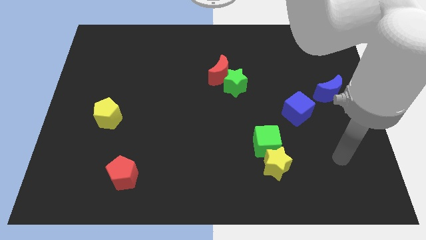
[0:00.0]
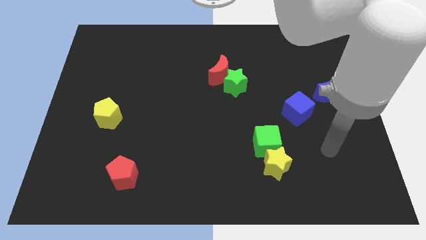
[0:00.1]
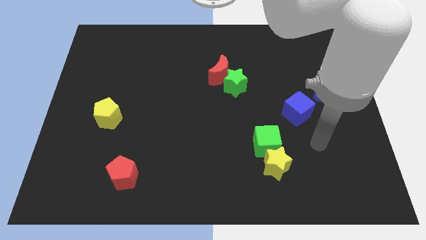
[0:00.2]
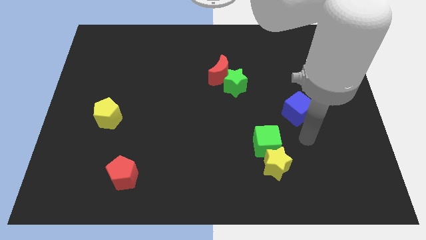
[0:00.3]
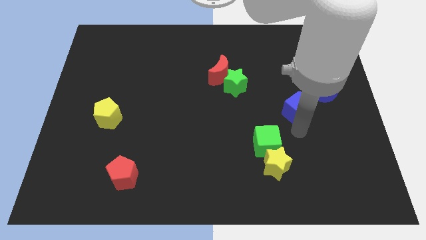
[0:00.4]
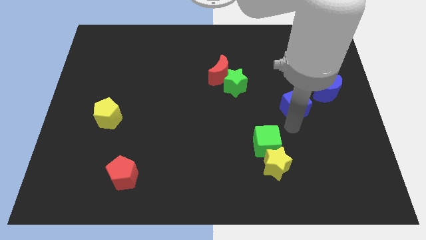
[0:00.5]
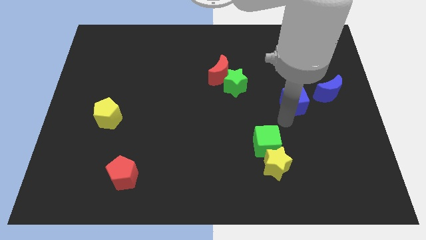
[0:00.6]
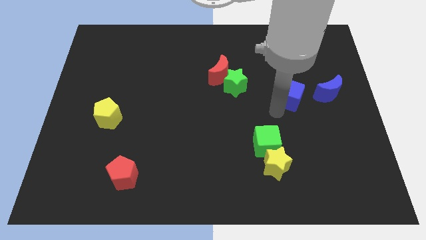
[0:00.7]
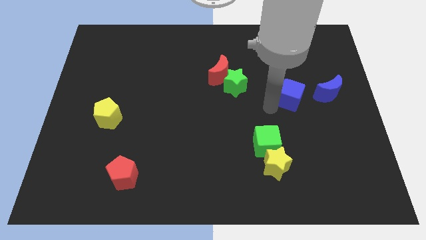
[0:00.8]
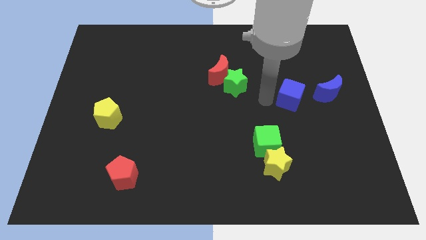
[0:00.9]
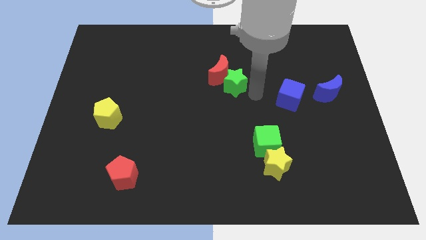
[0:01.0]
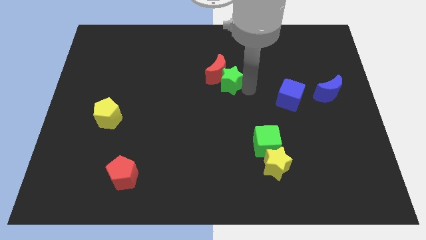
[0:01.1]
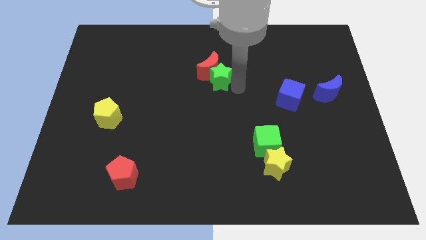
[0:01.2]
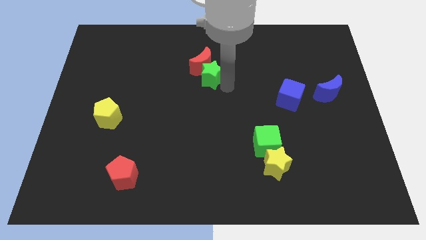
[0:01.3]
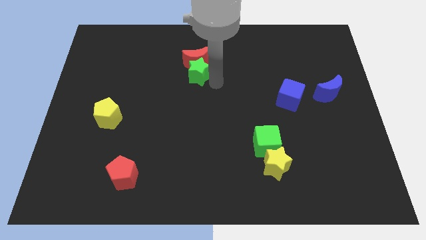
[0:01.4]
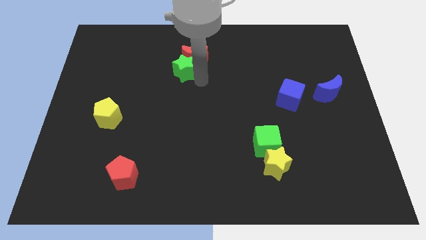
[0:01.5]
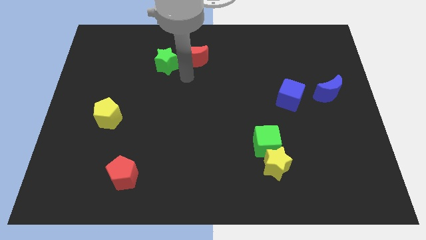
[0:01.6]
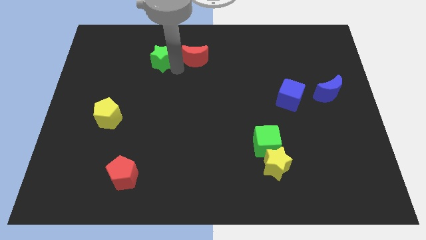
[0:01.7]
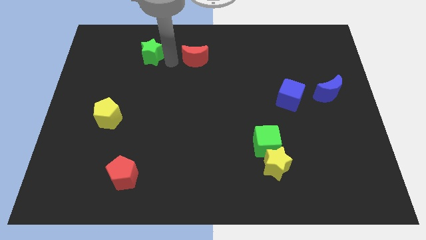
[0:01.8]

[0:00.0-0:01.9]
move the red moon away from the green star

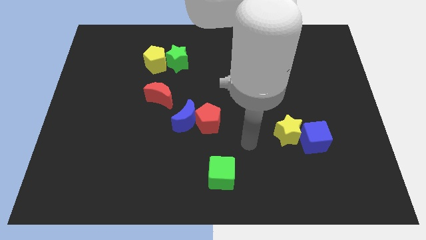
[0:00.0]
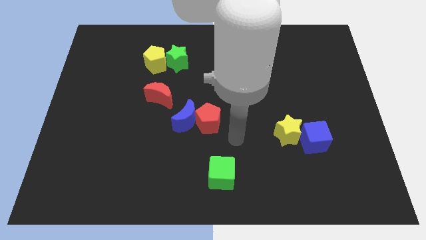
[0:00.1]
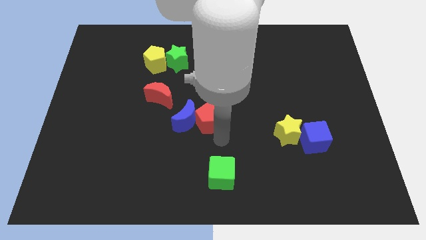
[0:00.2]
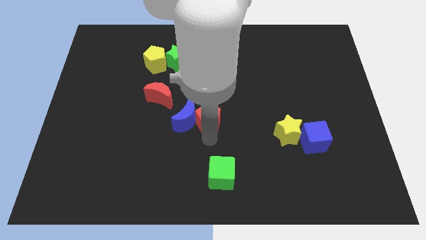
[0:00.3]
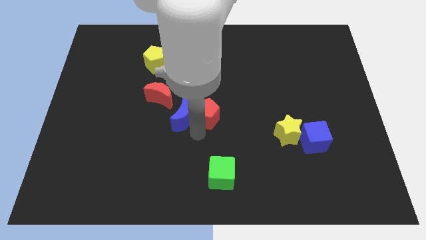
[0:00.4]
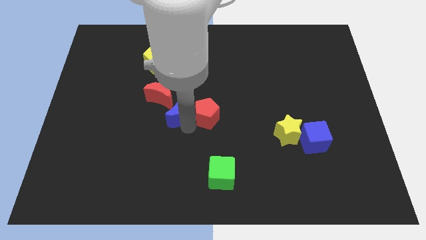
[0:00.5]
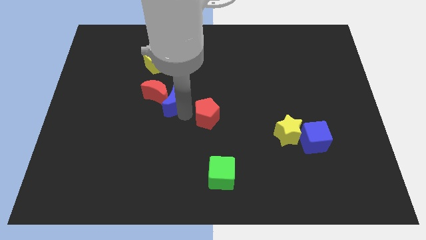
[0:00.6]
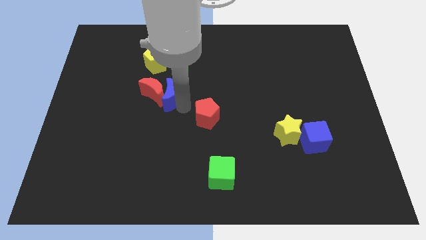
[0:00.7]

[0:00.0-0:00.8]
separate the red pentagon from the blue moon

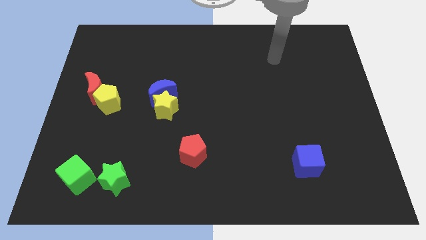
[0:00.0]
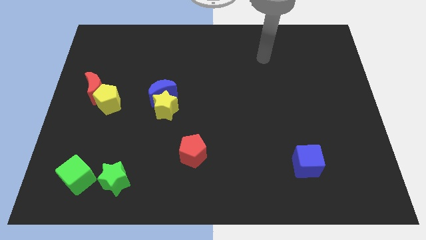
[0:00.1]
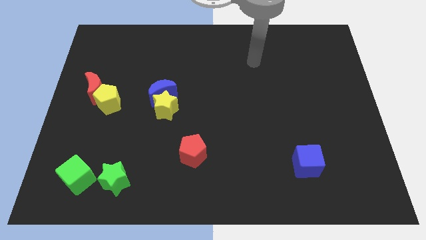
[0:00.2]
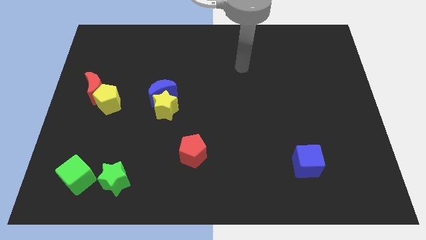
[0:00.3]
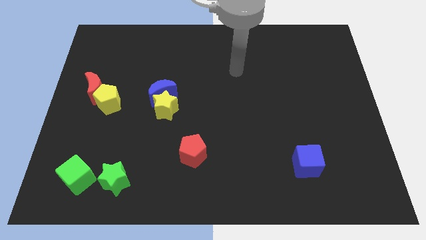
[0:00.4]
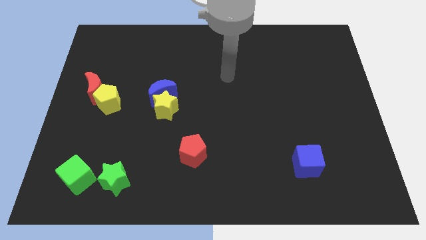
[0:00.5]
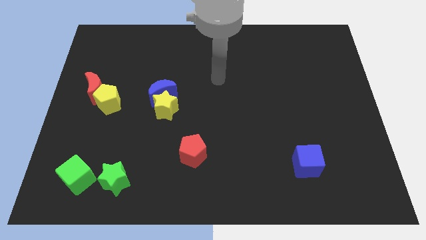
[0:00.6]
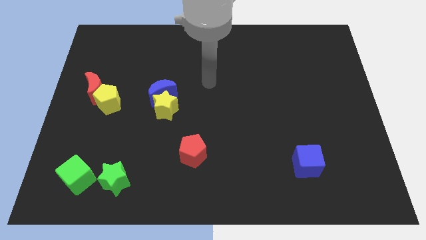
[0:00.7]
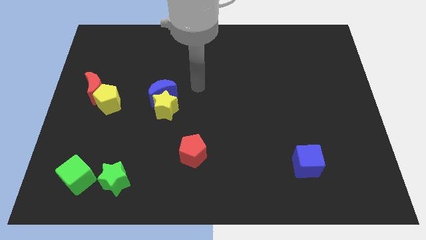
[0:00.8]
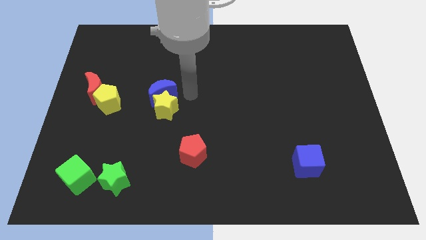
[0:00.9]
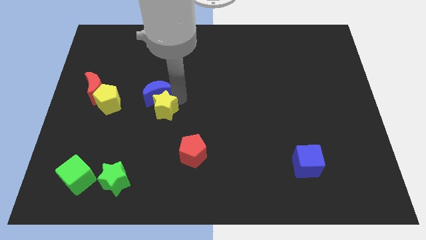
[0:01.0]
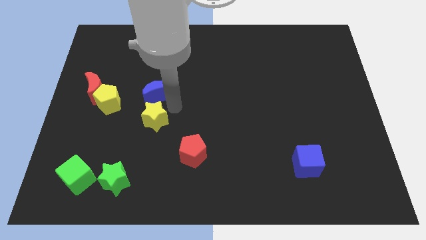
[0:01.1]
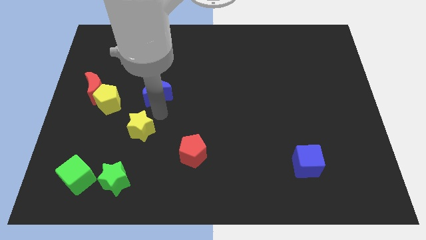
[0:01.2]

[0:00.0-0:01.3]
pull the blue moon apart from the yellow star

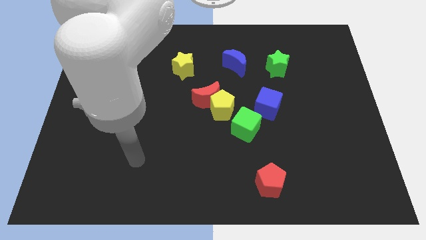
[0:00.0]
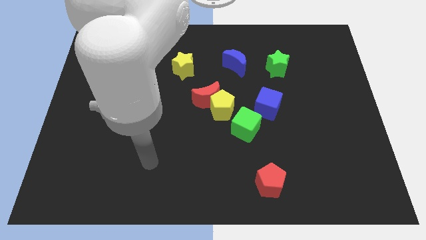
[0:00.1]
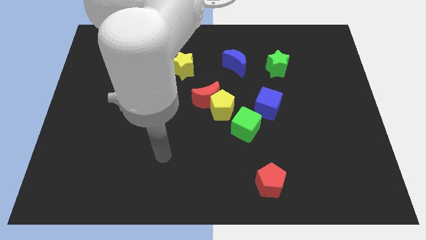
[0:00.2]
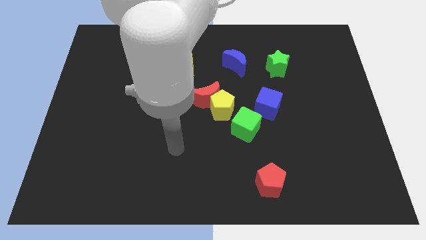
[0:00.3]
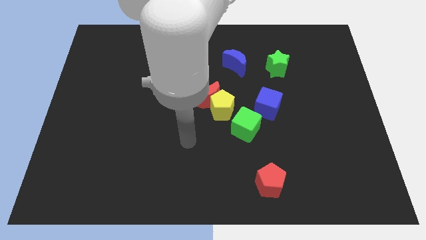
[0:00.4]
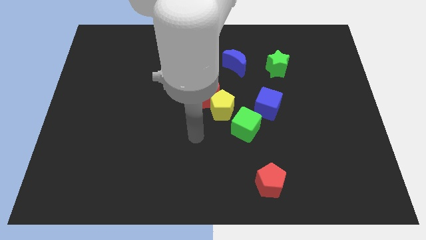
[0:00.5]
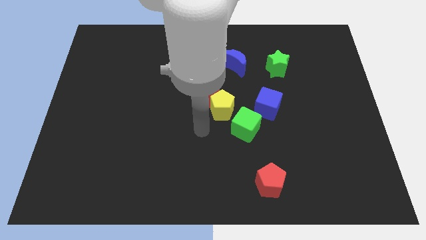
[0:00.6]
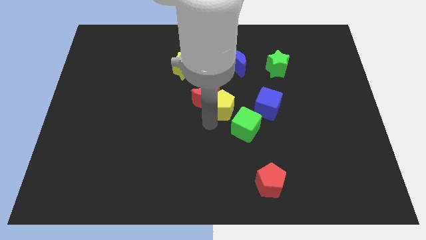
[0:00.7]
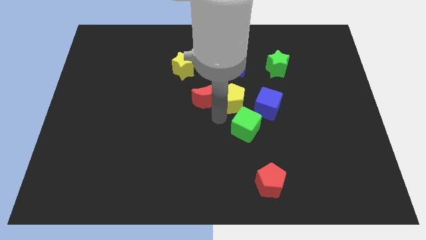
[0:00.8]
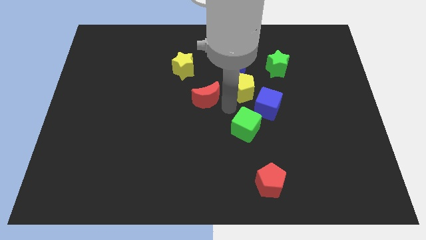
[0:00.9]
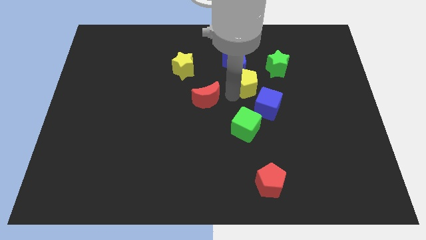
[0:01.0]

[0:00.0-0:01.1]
separate the red moon from the yellow pentagon

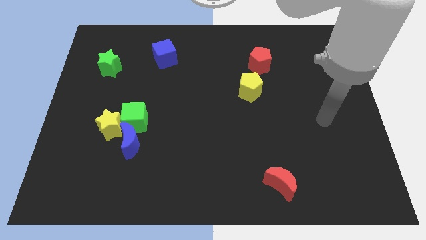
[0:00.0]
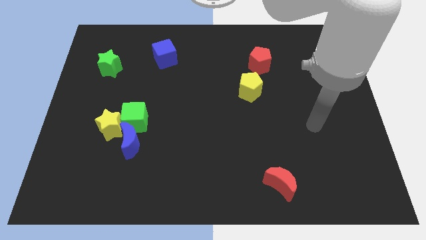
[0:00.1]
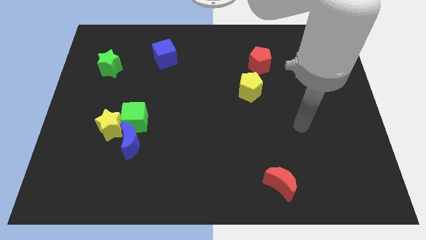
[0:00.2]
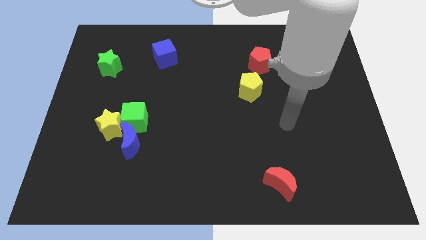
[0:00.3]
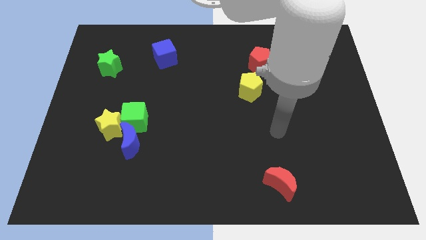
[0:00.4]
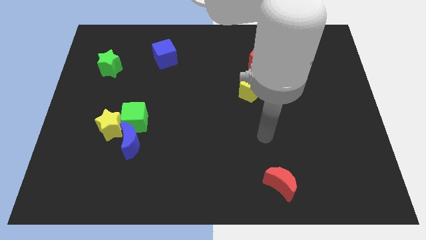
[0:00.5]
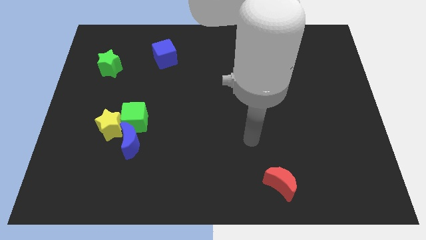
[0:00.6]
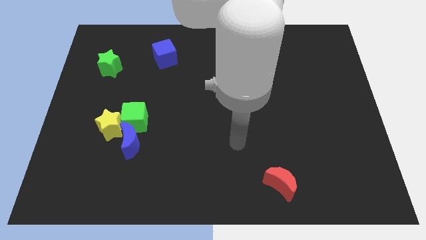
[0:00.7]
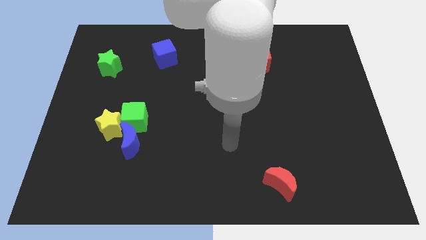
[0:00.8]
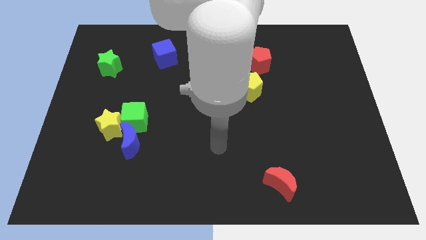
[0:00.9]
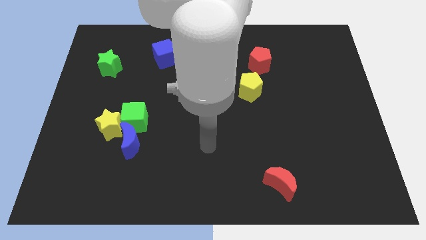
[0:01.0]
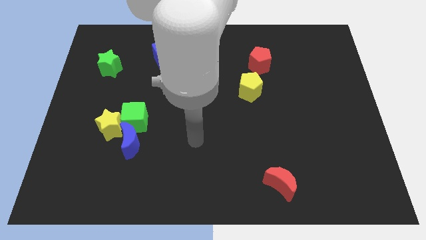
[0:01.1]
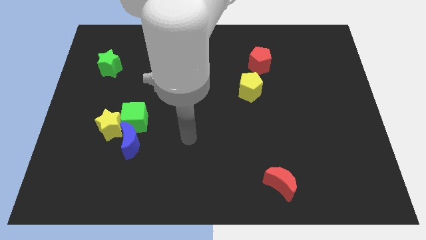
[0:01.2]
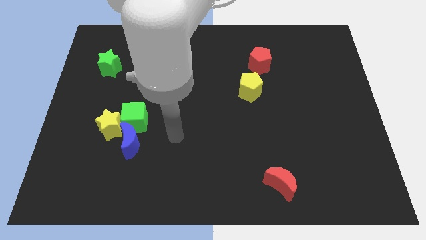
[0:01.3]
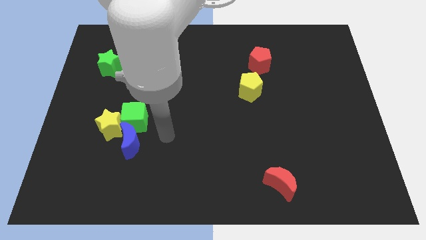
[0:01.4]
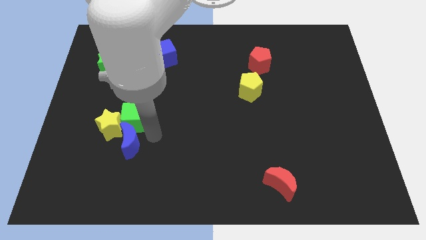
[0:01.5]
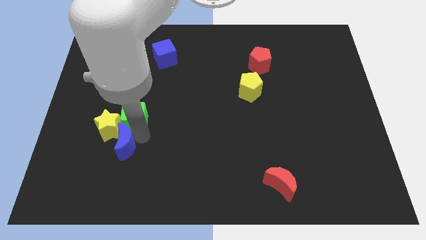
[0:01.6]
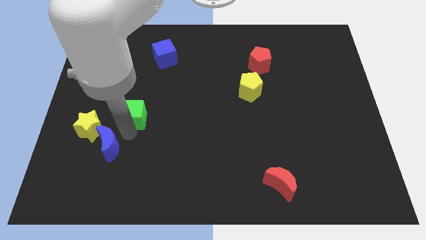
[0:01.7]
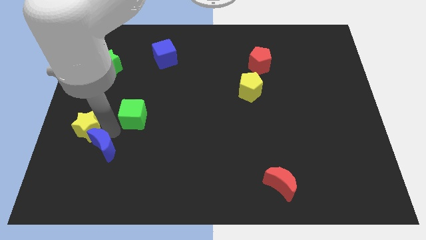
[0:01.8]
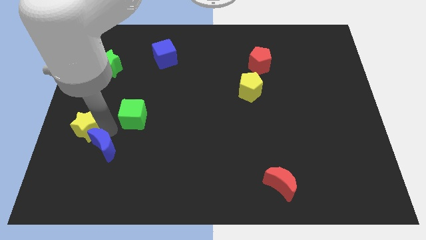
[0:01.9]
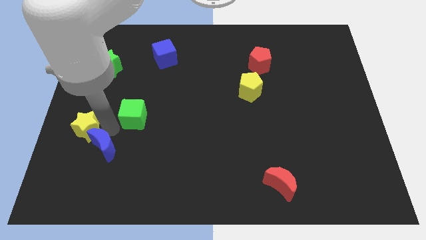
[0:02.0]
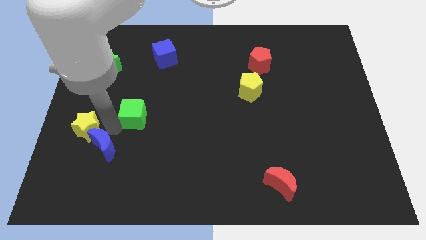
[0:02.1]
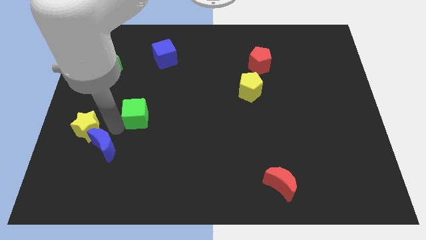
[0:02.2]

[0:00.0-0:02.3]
move the green cube away from the yellow star and blue moon

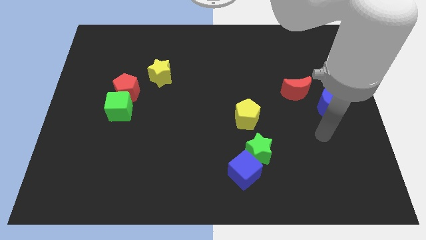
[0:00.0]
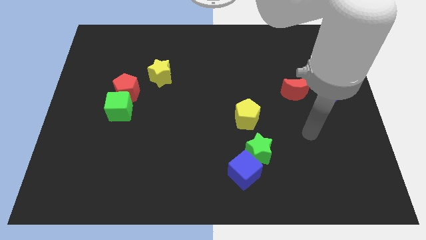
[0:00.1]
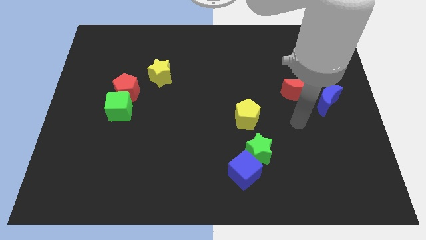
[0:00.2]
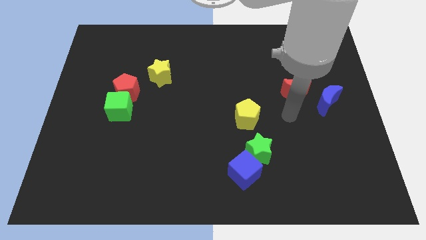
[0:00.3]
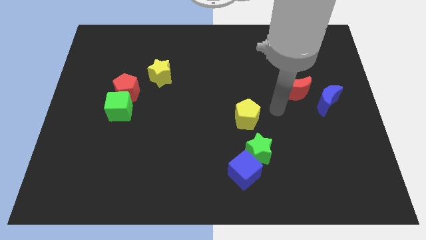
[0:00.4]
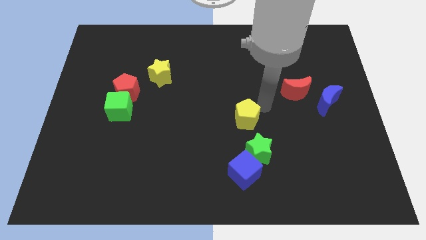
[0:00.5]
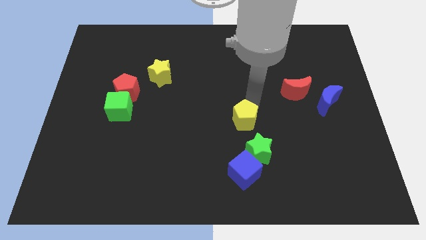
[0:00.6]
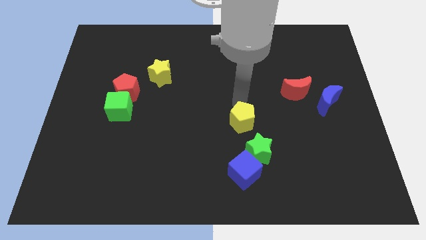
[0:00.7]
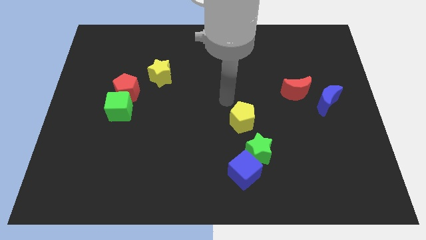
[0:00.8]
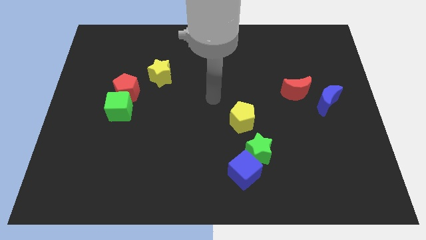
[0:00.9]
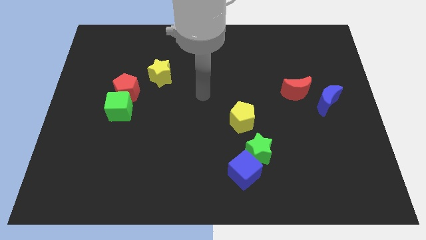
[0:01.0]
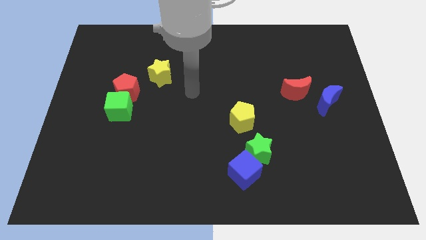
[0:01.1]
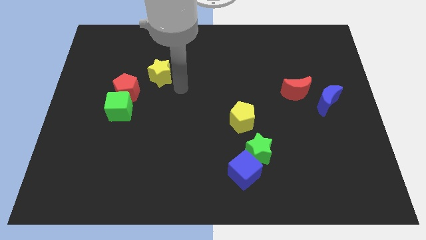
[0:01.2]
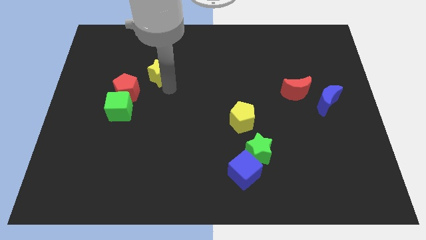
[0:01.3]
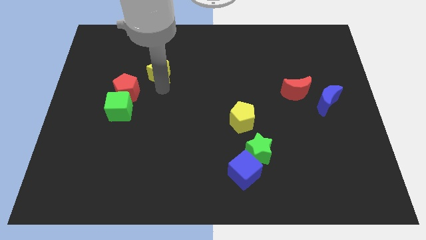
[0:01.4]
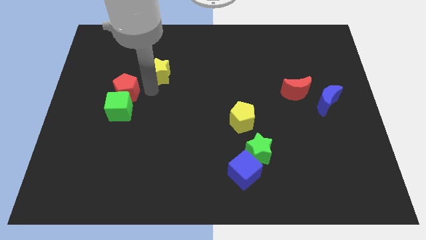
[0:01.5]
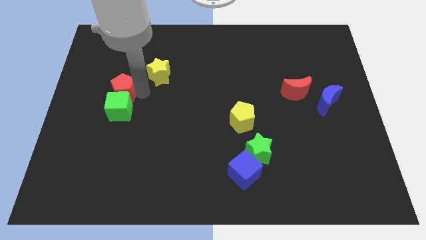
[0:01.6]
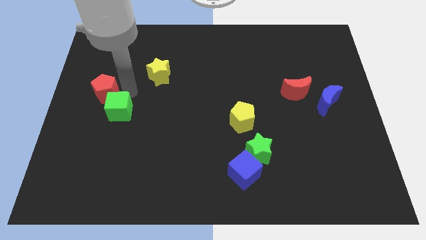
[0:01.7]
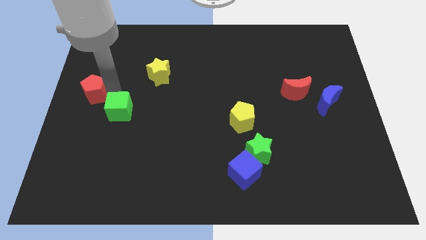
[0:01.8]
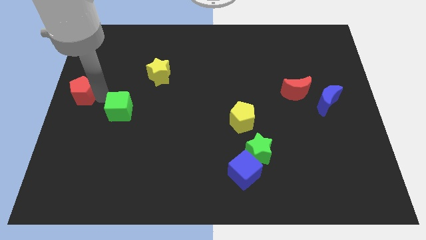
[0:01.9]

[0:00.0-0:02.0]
move the green cube away from the red pentagon
